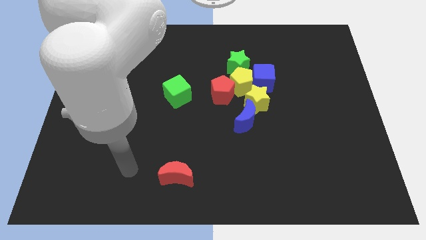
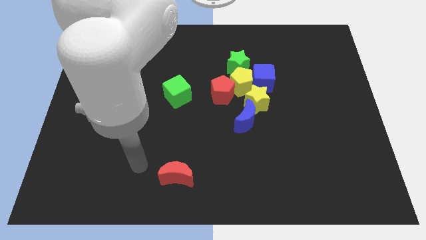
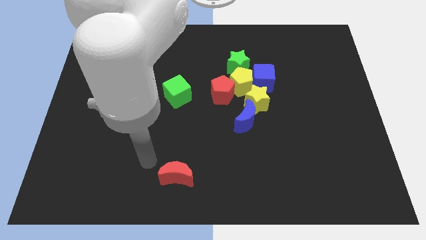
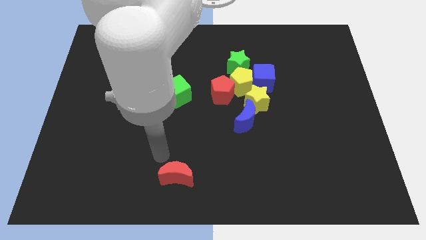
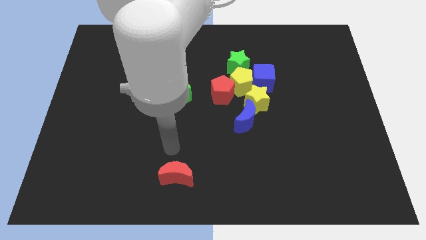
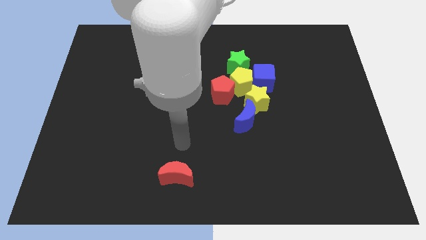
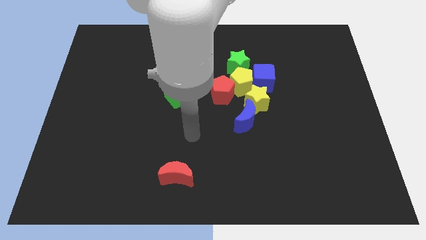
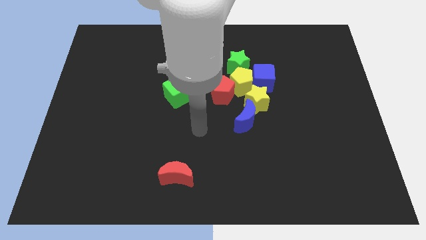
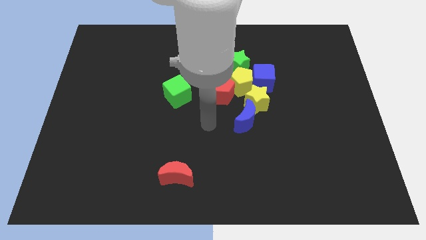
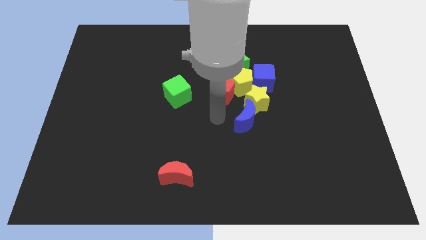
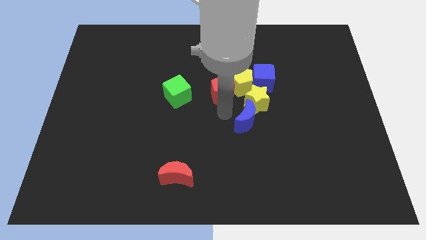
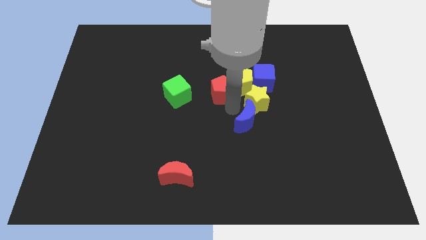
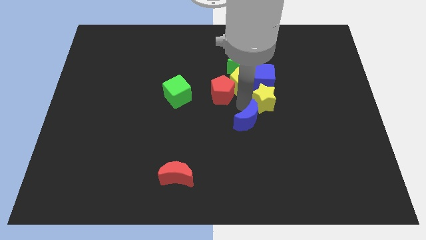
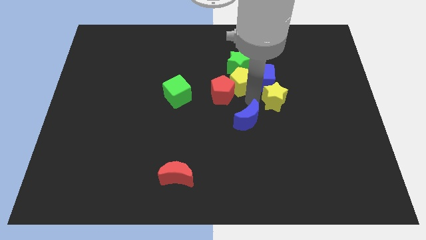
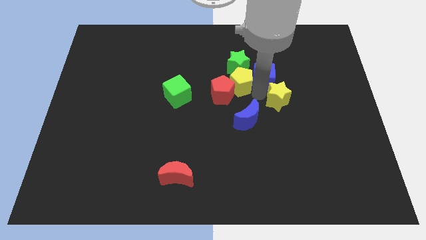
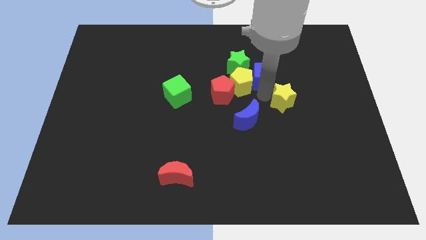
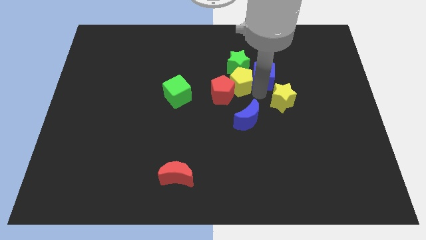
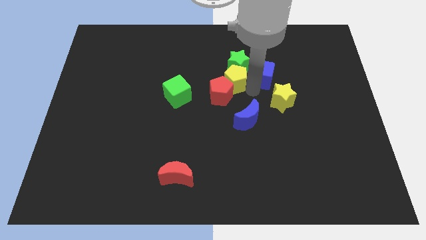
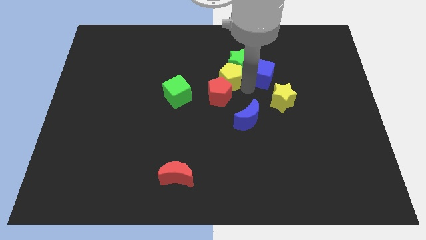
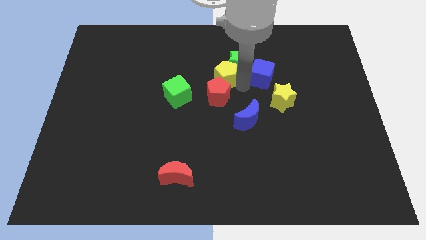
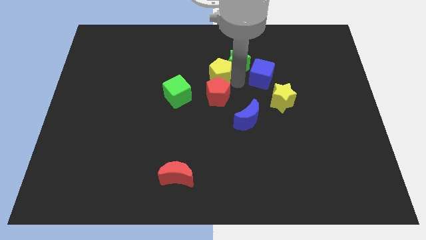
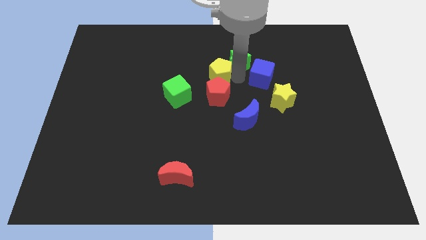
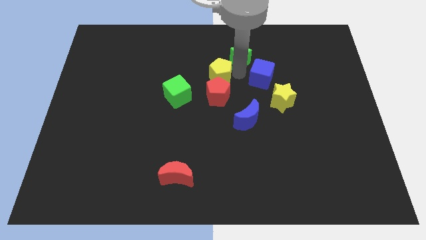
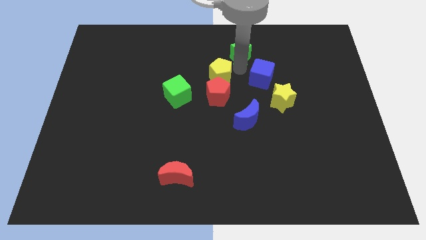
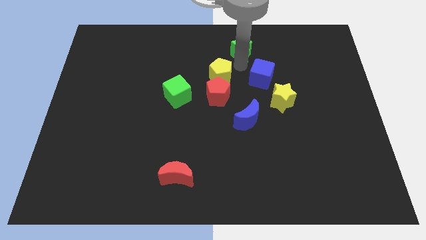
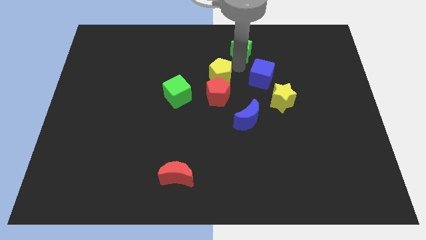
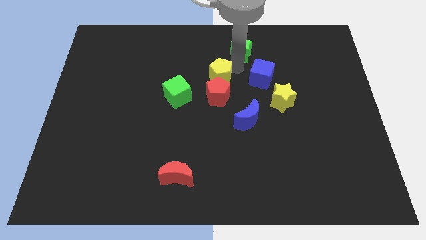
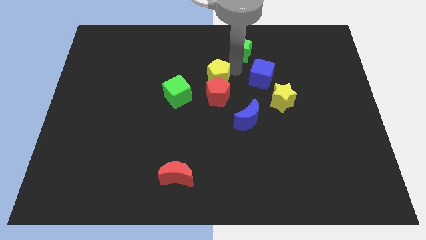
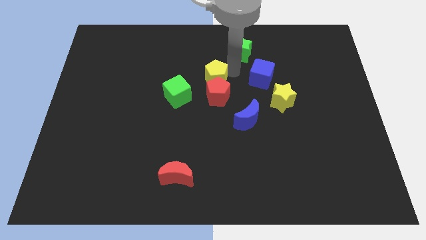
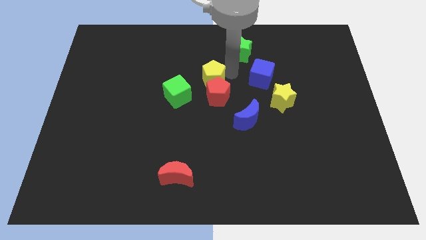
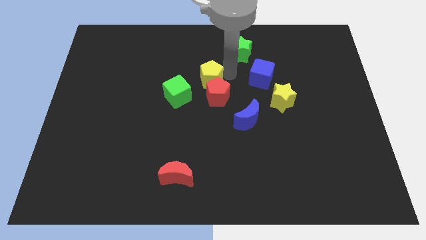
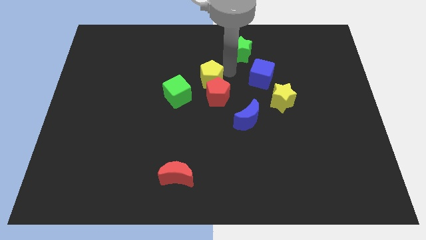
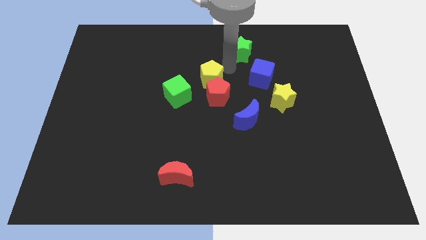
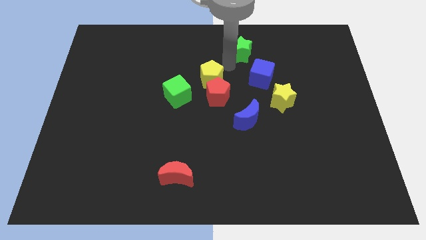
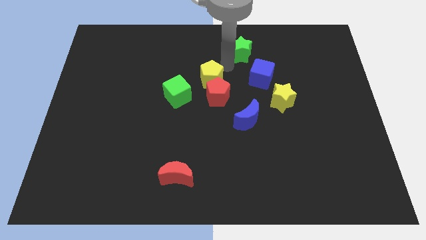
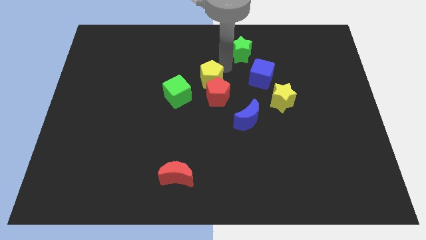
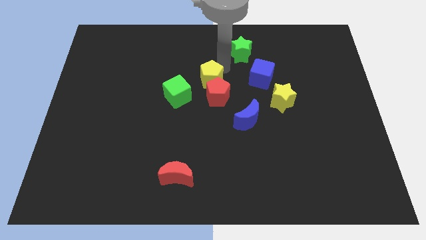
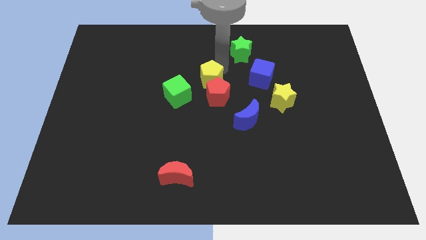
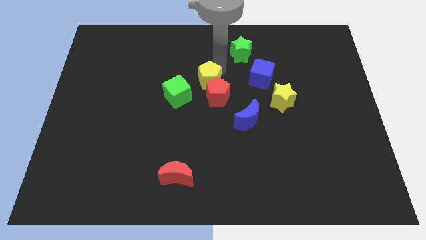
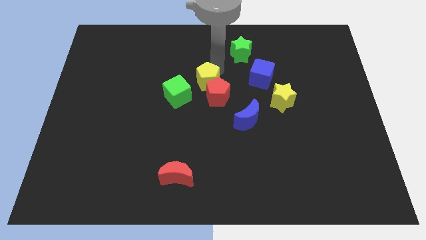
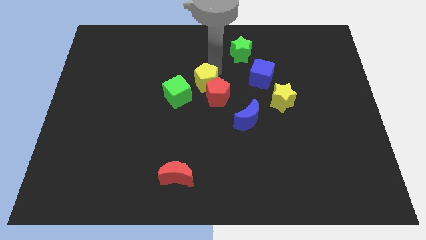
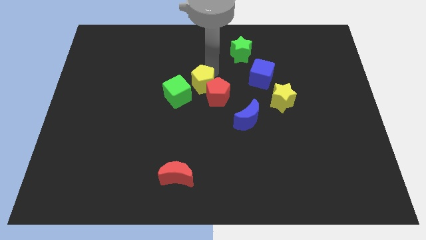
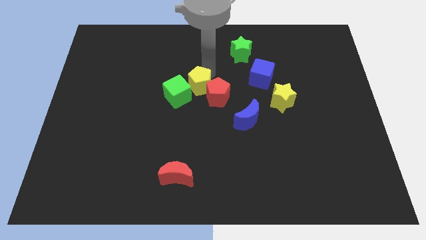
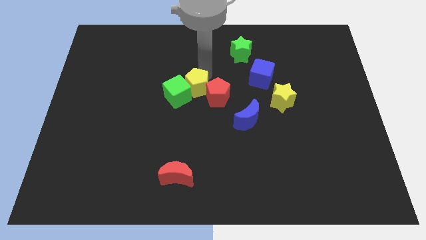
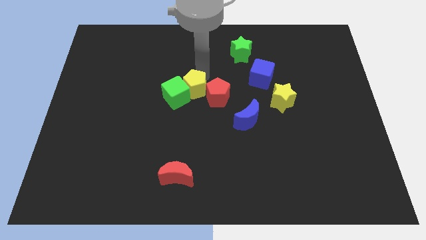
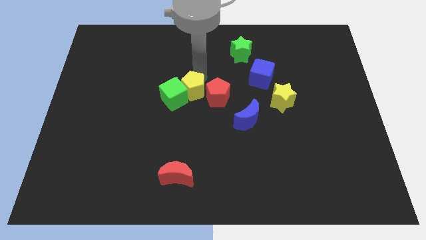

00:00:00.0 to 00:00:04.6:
slightly slide the yellow pentagon downwards and left

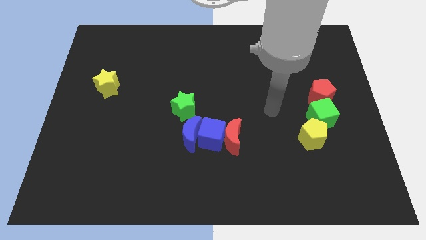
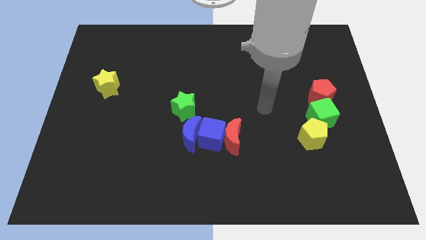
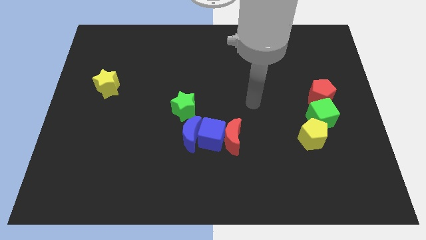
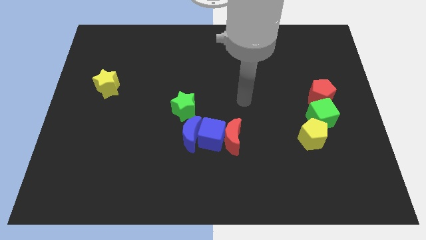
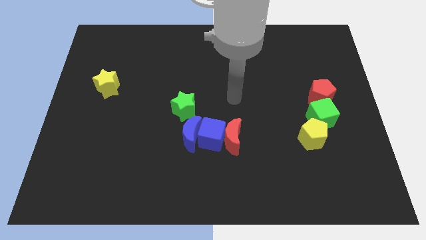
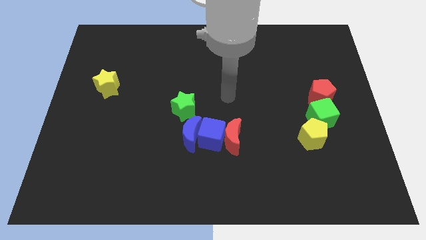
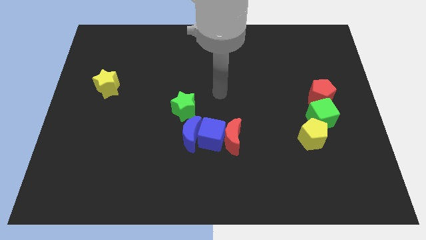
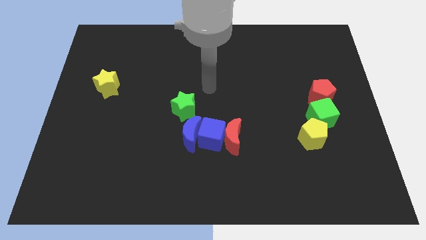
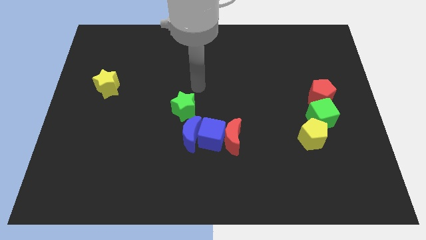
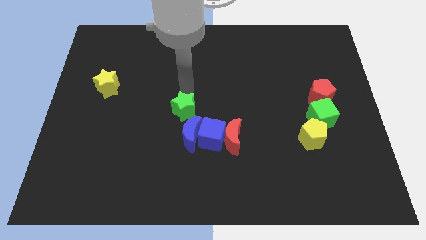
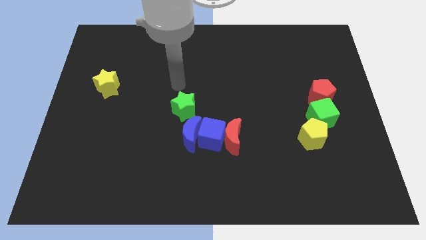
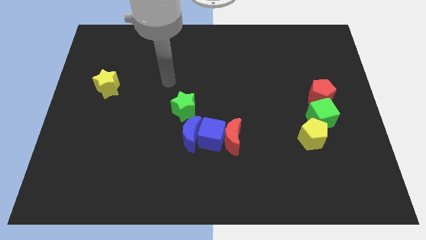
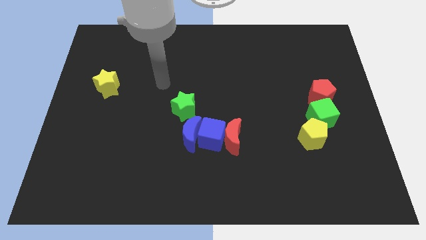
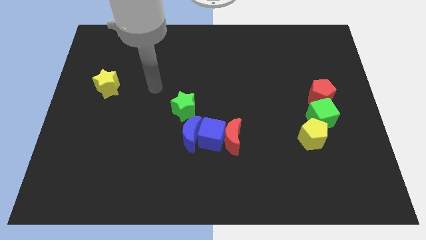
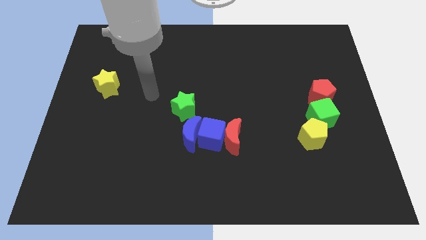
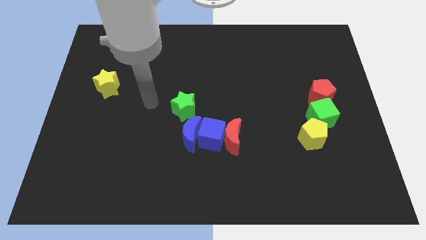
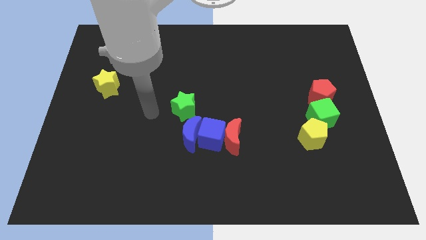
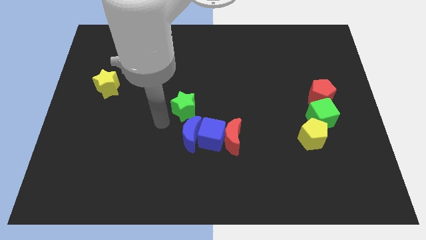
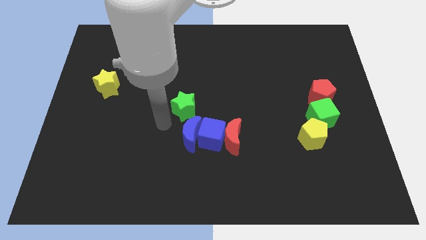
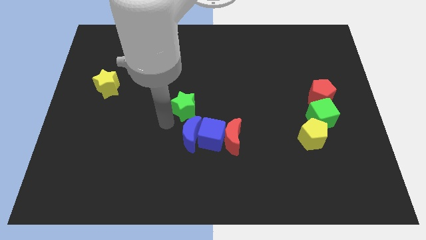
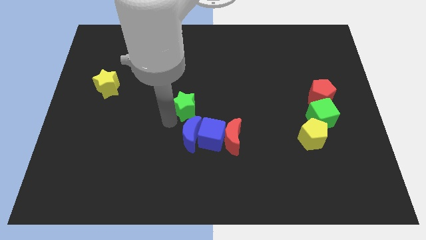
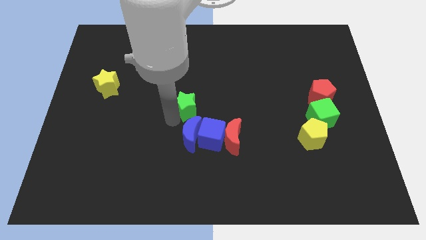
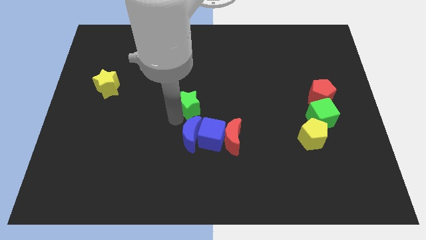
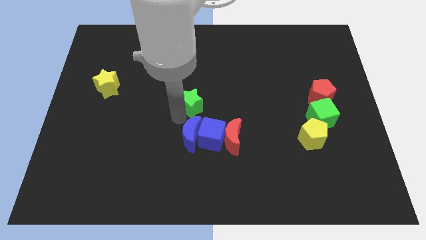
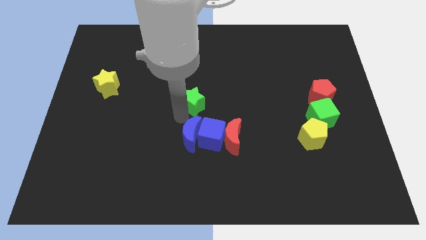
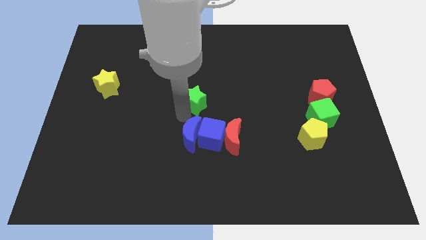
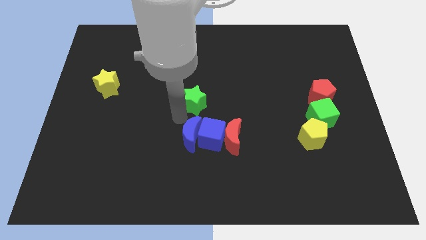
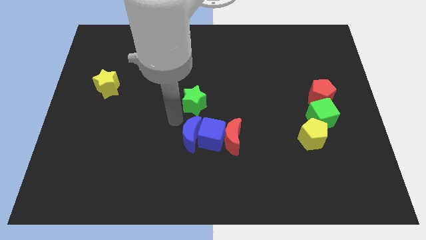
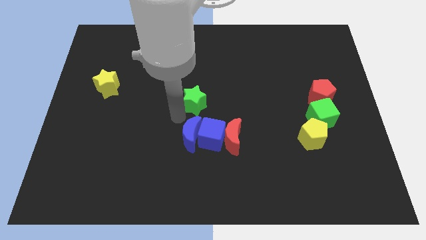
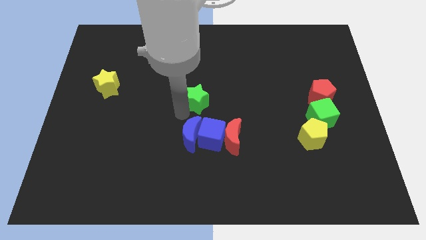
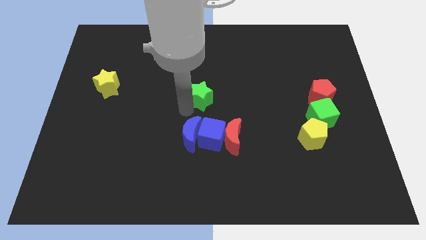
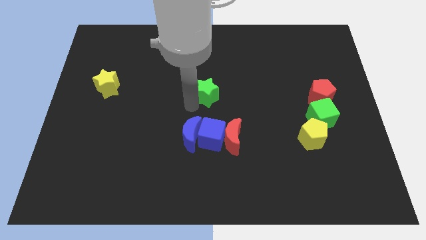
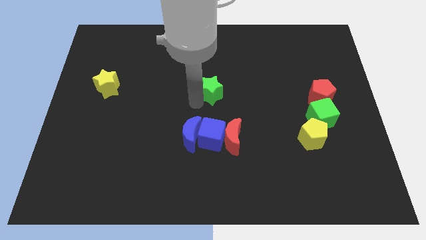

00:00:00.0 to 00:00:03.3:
move the green star upwards and right a bit
